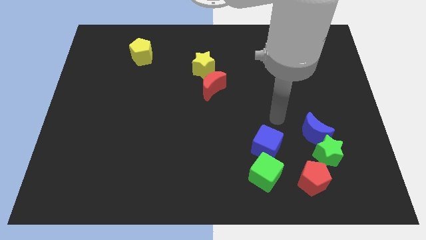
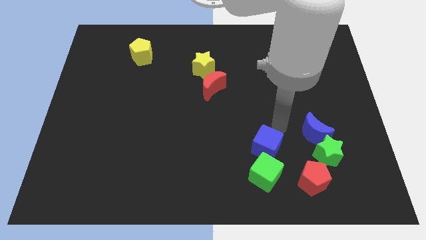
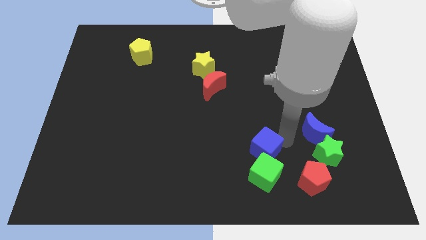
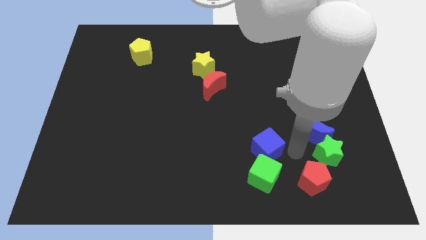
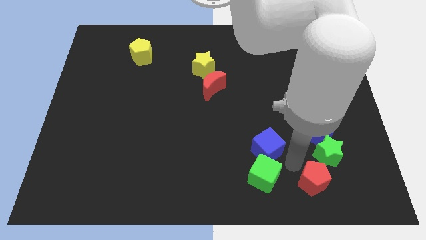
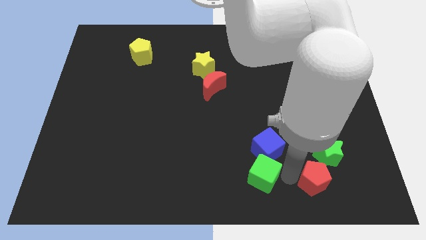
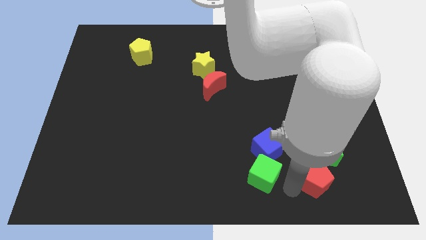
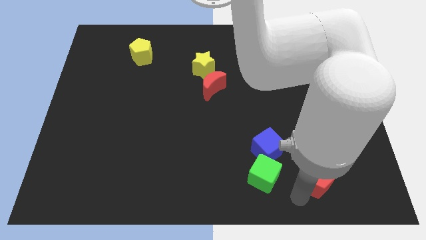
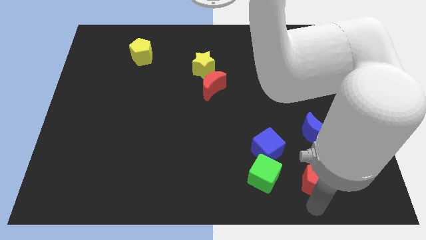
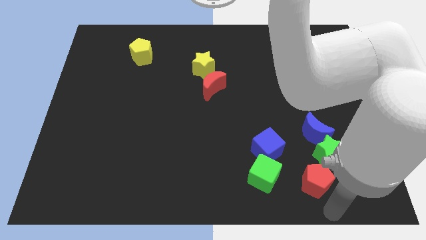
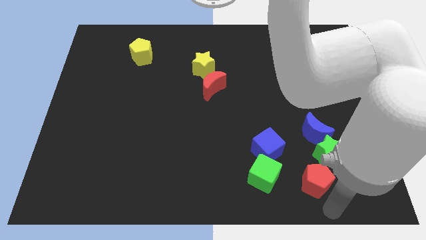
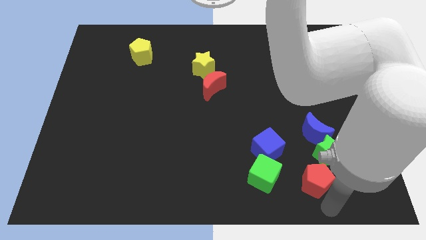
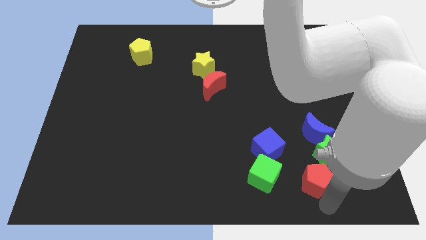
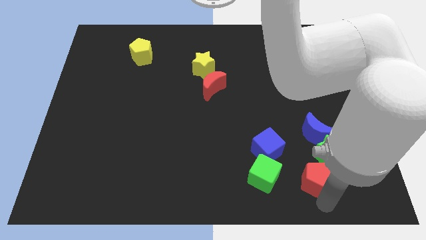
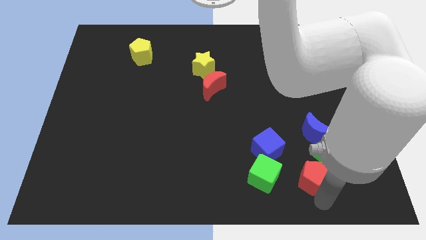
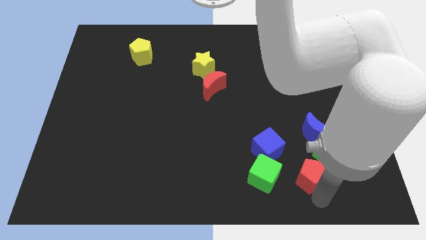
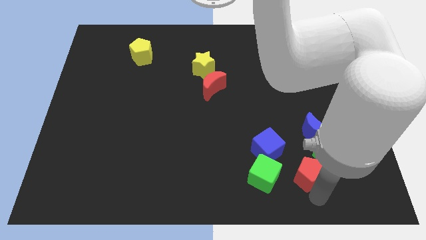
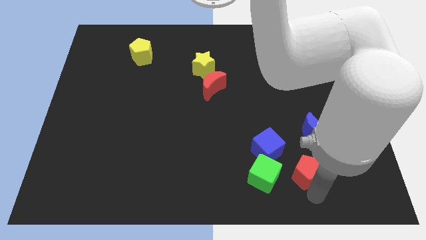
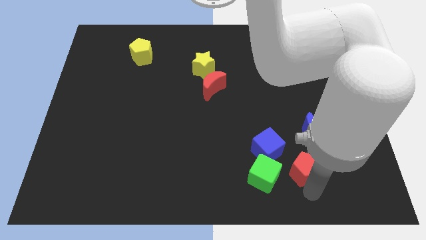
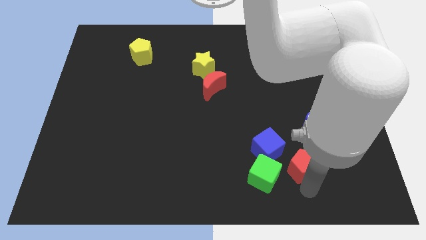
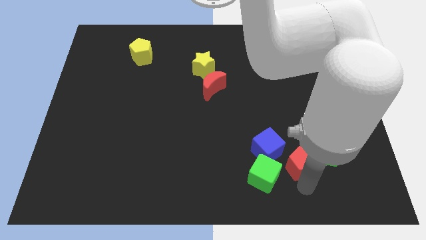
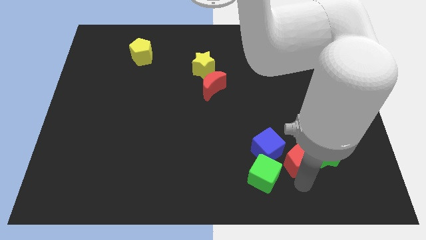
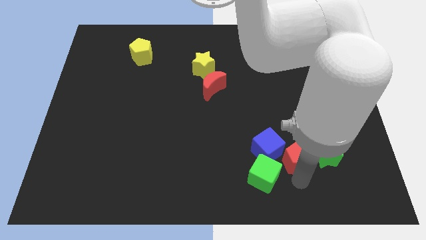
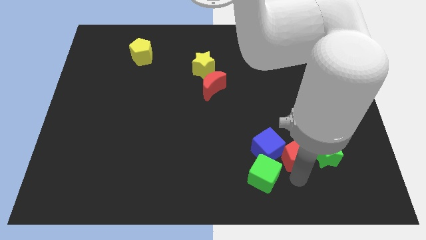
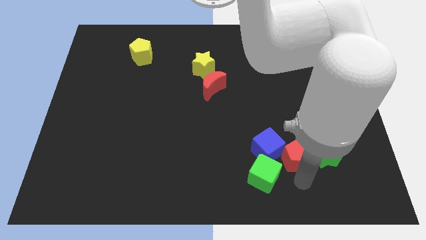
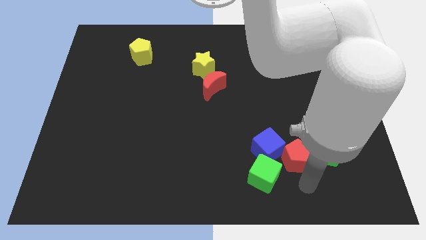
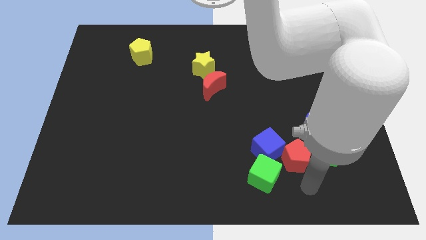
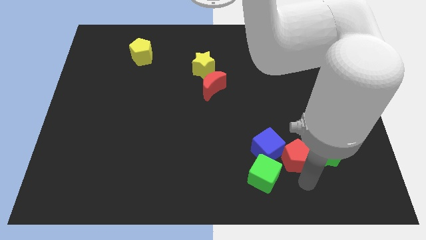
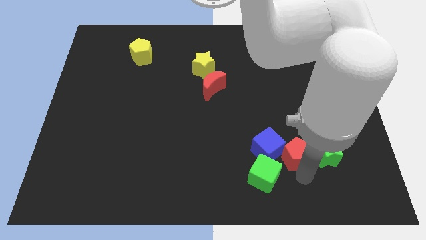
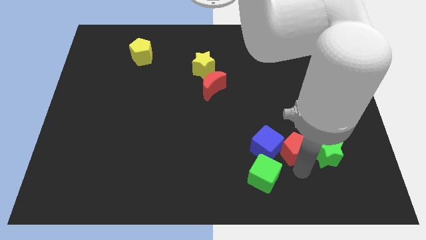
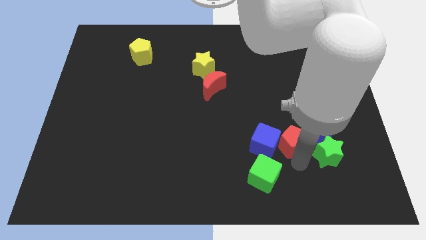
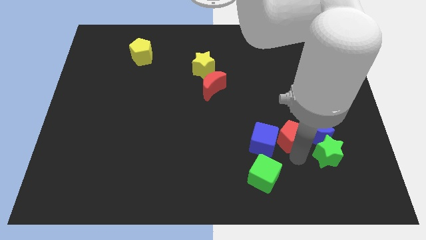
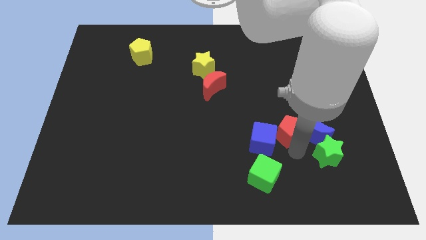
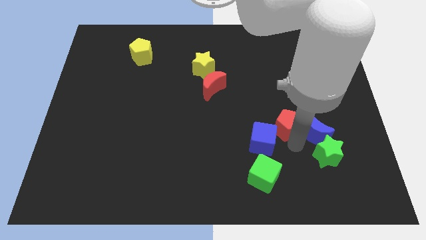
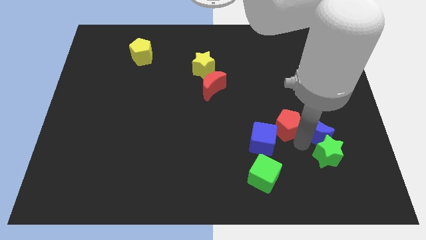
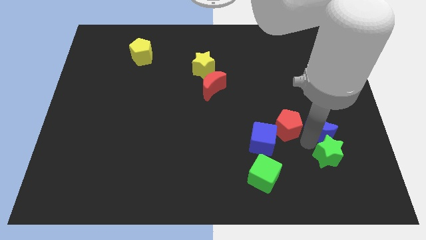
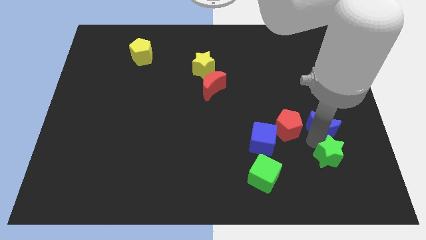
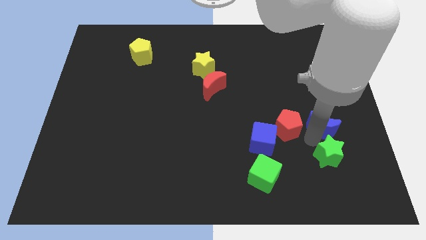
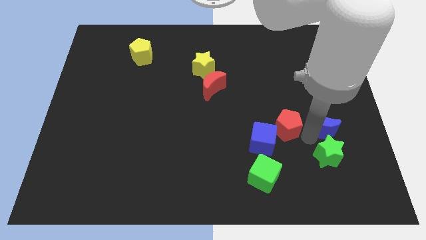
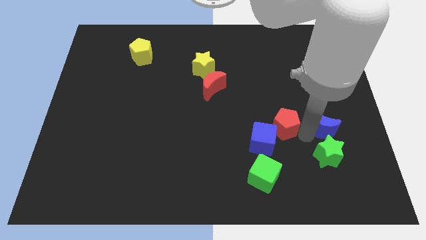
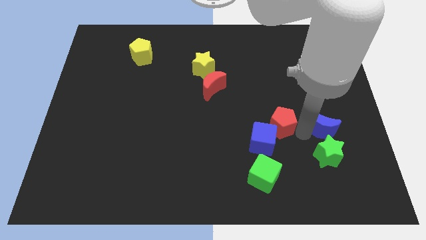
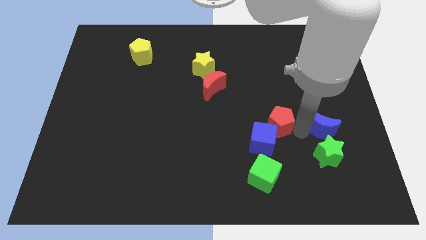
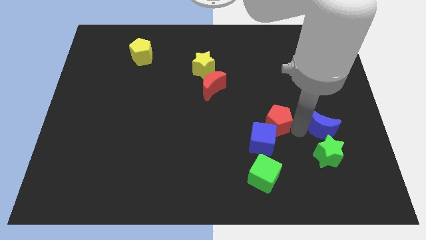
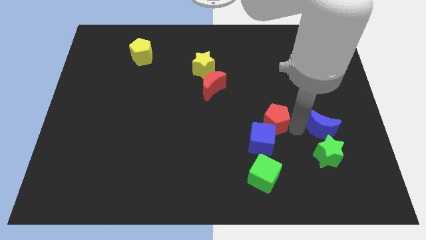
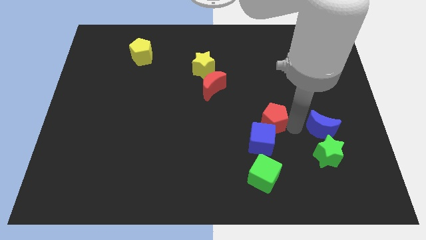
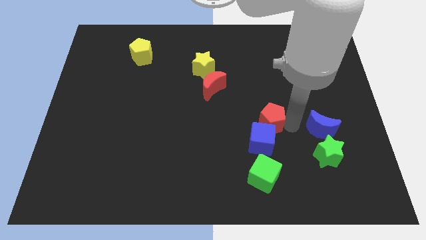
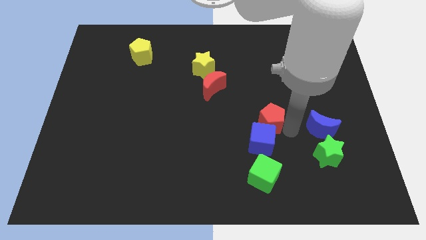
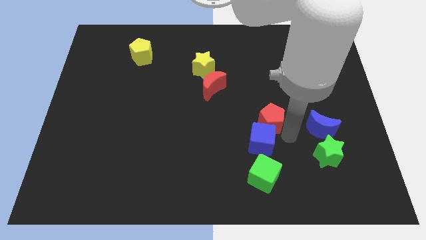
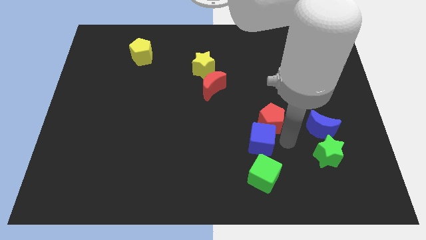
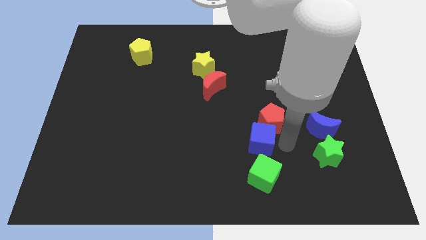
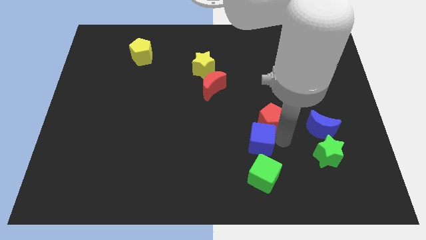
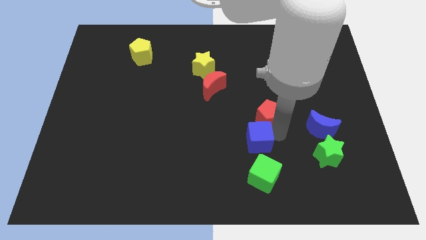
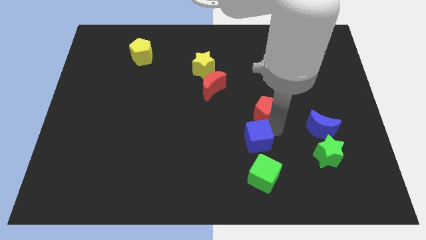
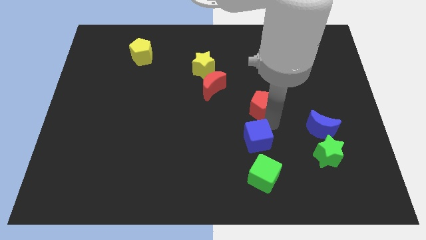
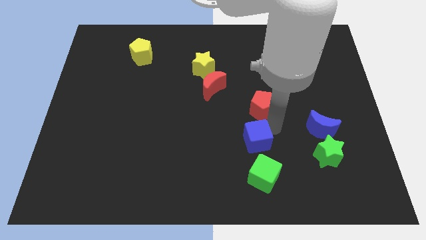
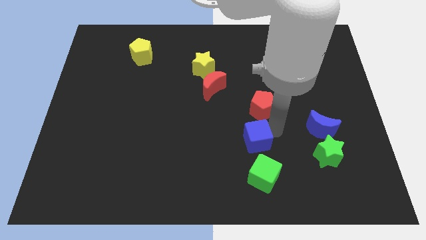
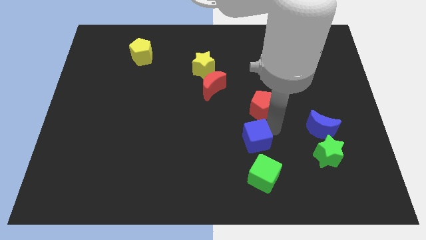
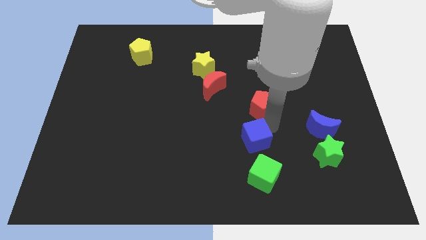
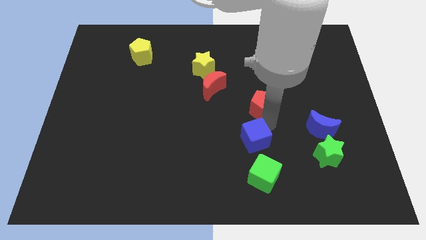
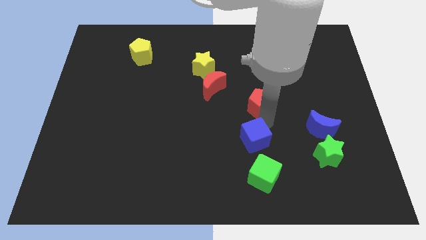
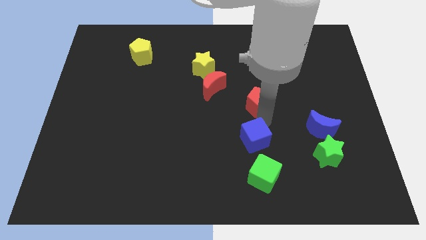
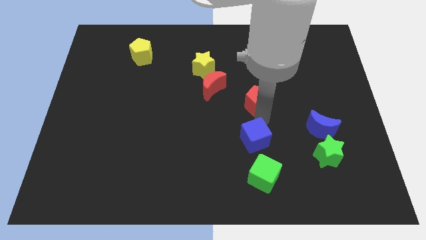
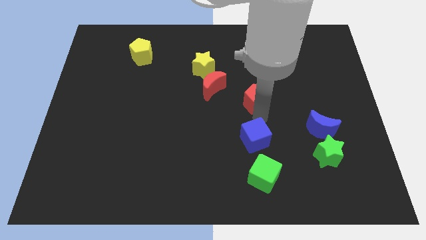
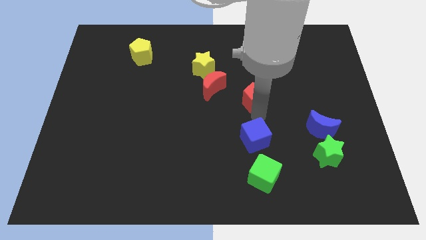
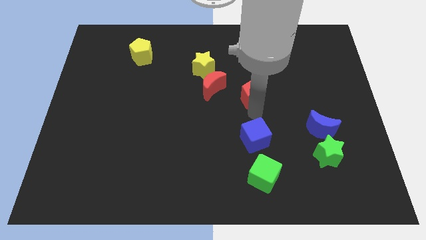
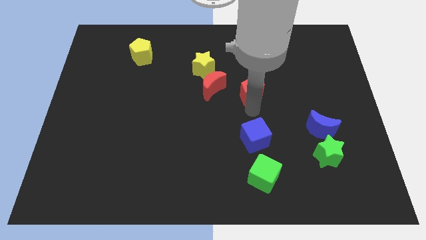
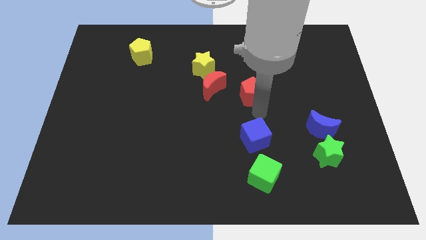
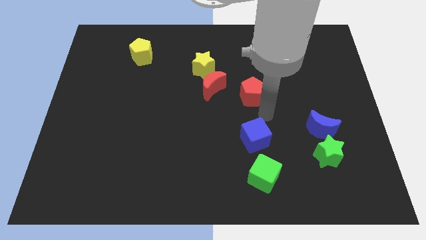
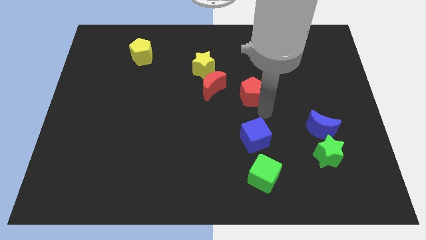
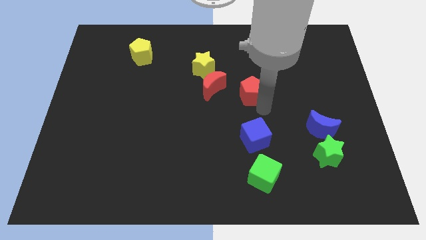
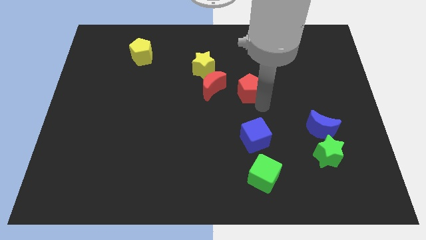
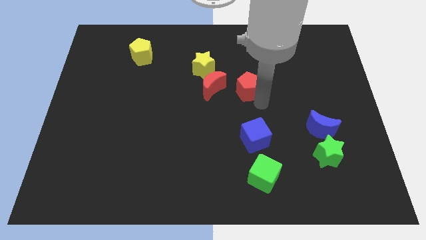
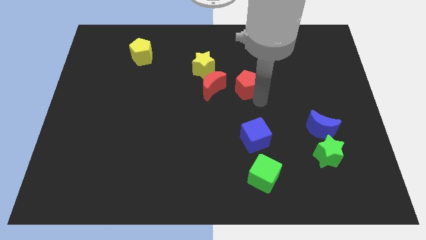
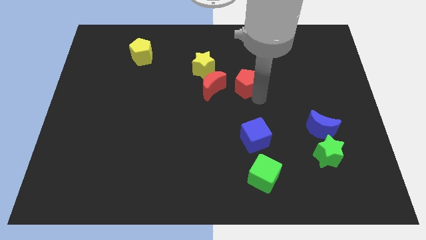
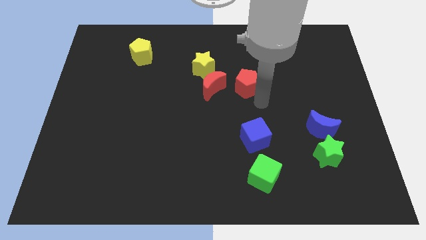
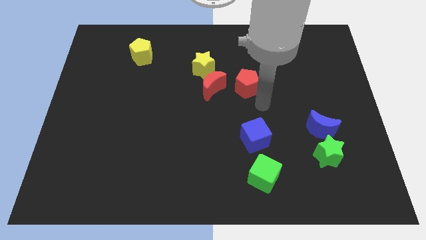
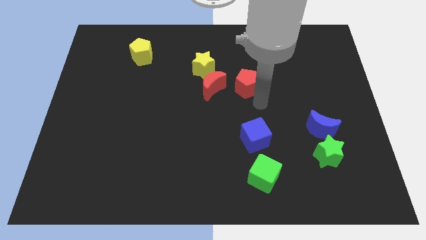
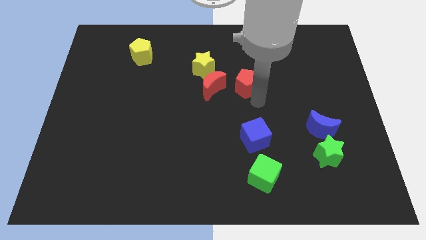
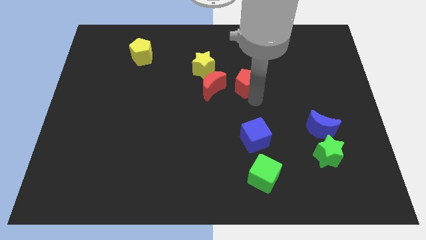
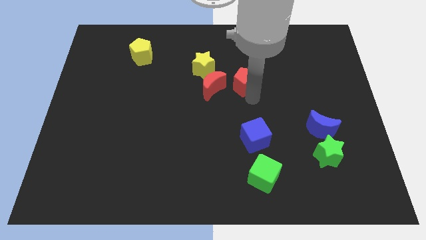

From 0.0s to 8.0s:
push the red pentagon to the top right side of the red moon
